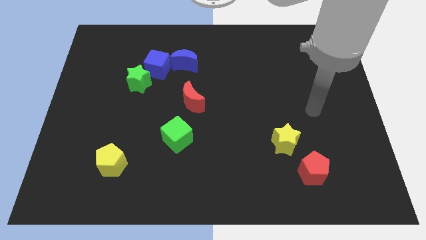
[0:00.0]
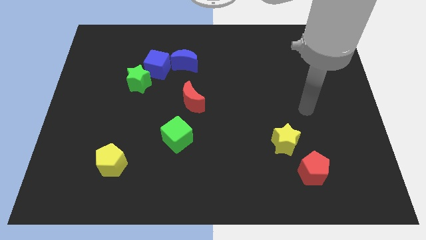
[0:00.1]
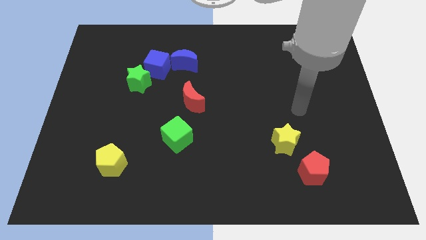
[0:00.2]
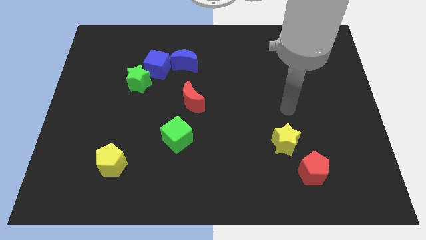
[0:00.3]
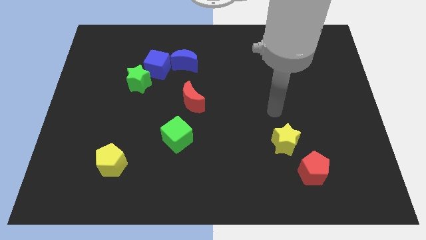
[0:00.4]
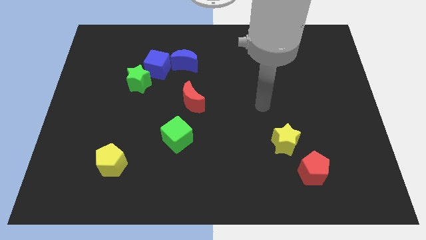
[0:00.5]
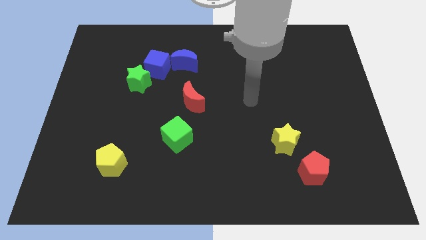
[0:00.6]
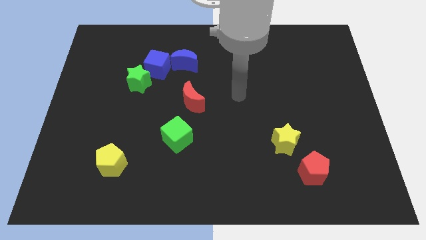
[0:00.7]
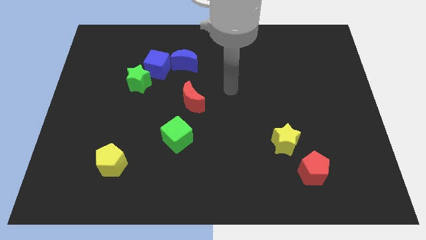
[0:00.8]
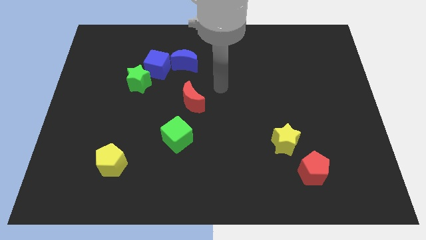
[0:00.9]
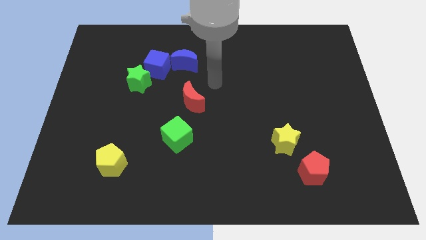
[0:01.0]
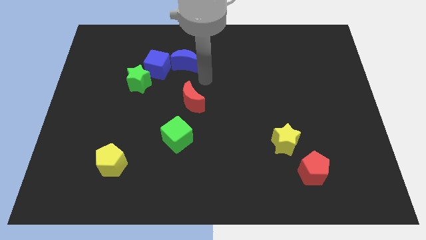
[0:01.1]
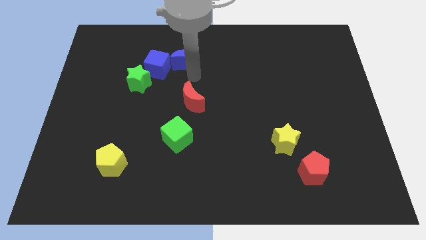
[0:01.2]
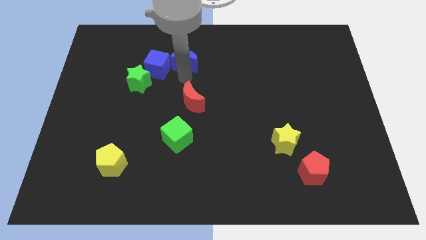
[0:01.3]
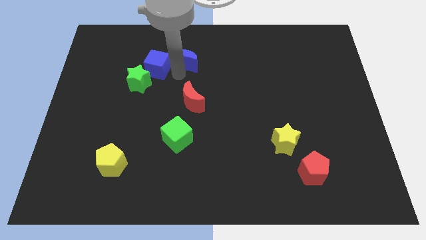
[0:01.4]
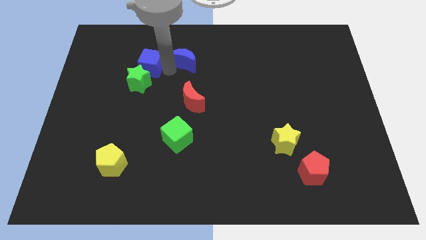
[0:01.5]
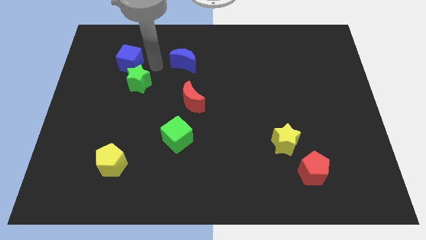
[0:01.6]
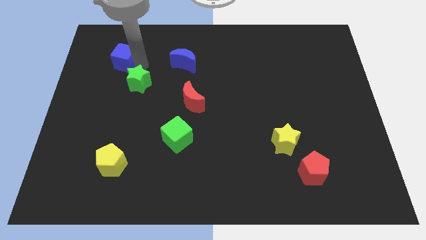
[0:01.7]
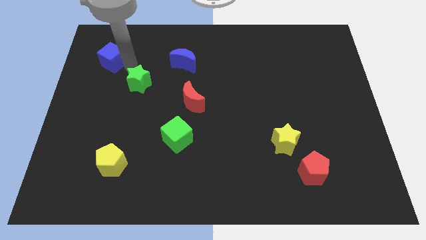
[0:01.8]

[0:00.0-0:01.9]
pull the green star apart from the blue cube

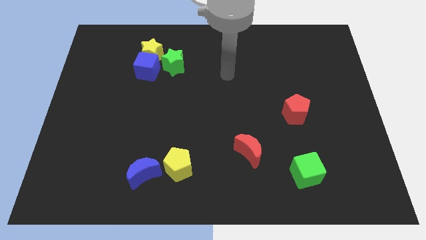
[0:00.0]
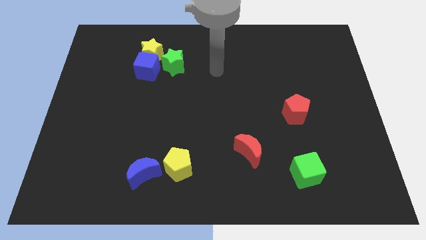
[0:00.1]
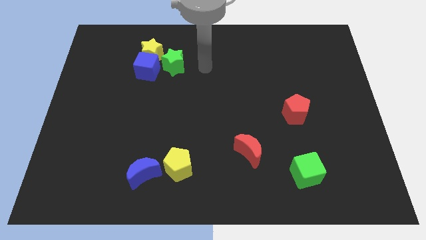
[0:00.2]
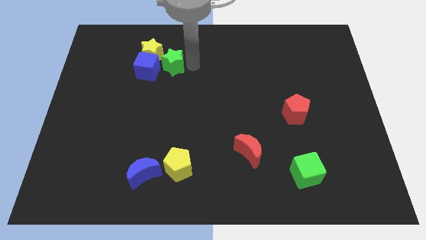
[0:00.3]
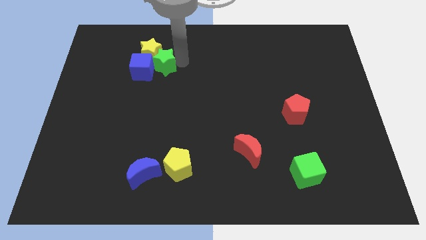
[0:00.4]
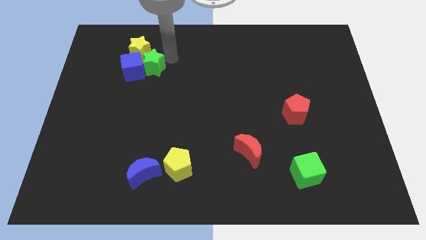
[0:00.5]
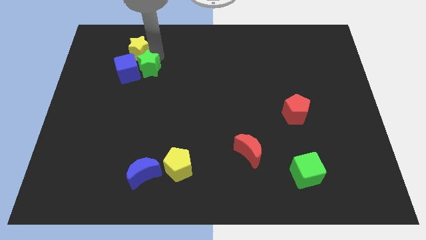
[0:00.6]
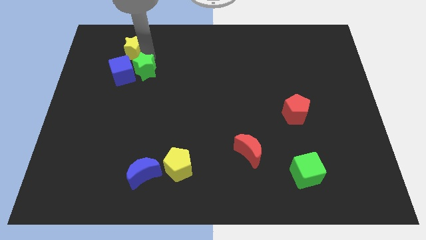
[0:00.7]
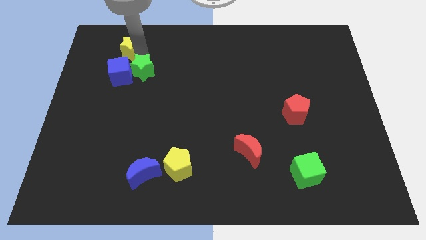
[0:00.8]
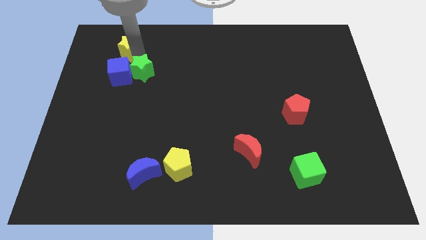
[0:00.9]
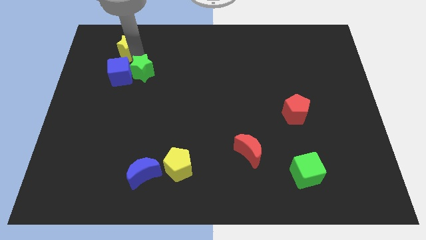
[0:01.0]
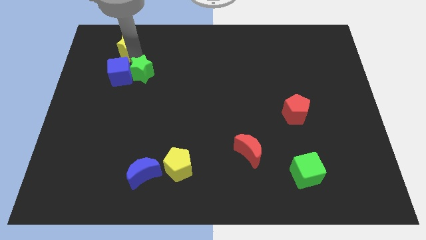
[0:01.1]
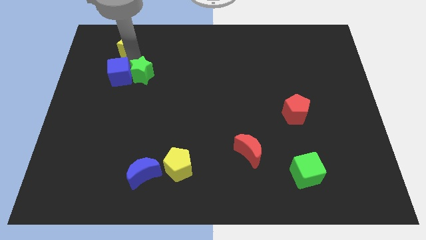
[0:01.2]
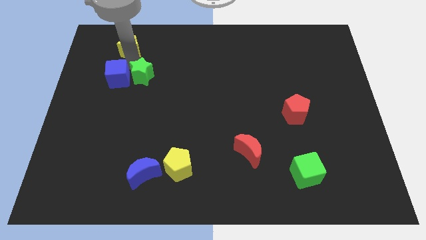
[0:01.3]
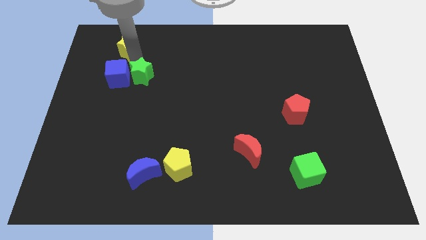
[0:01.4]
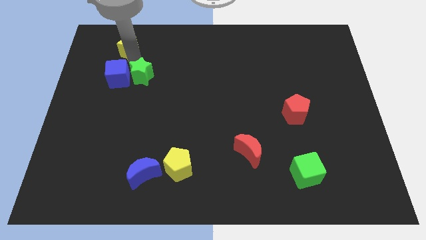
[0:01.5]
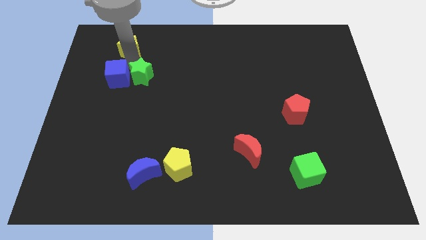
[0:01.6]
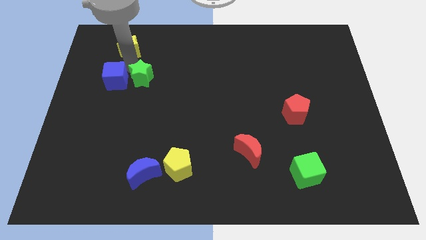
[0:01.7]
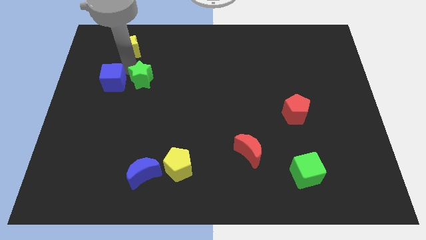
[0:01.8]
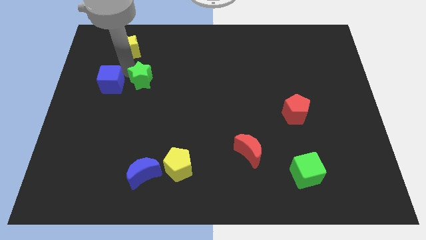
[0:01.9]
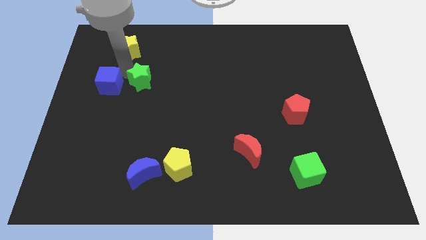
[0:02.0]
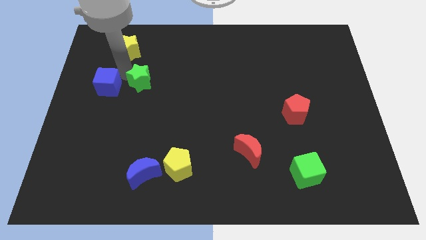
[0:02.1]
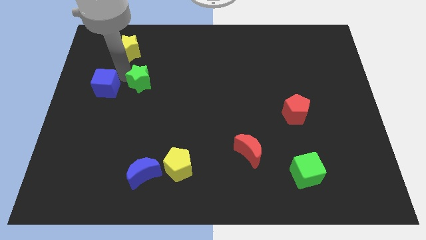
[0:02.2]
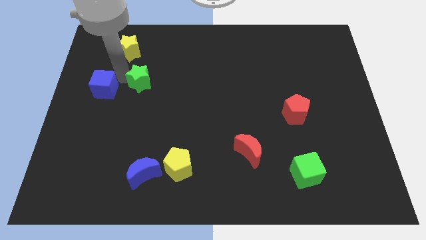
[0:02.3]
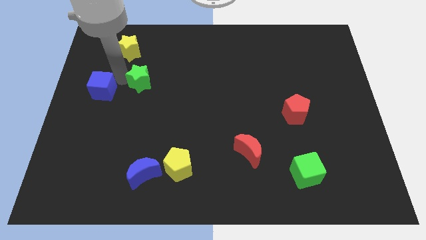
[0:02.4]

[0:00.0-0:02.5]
separate the blue cube from the yellow star and green star

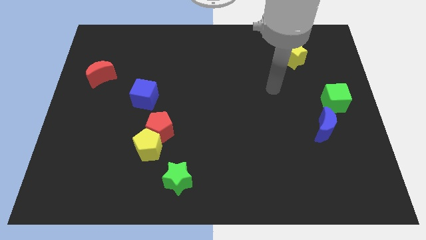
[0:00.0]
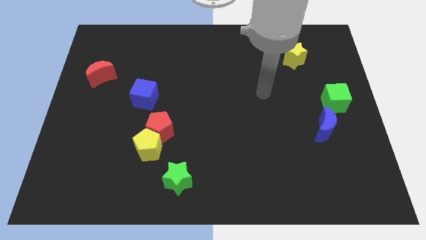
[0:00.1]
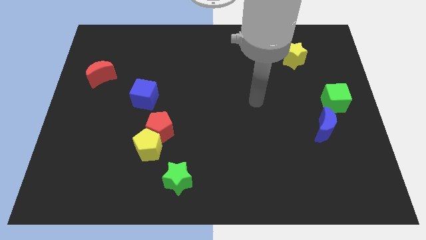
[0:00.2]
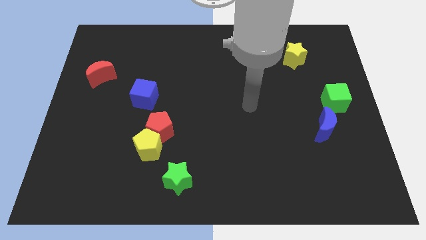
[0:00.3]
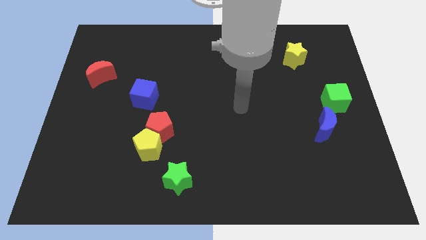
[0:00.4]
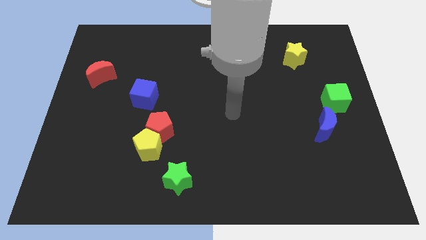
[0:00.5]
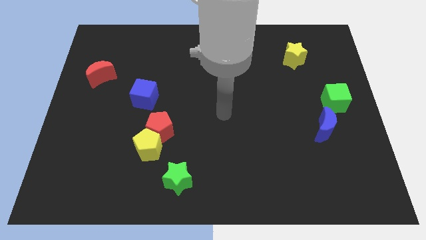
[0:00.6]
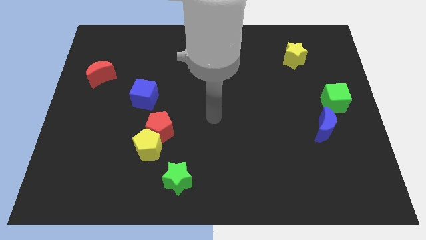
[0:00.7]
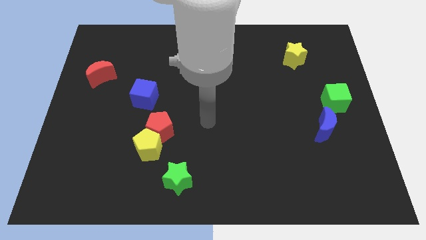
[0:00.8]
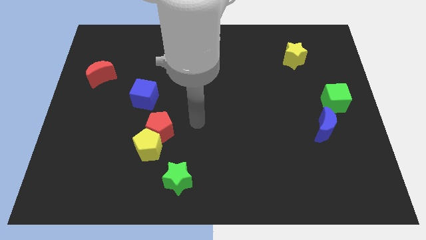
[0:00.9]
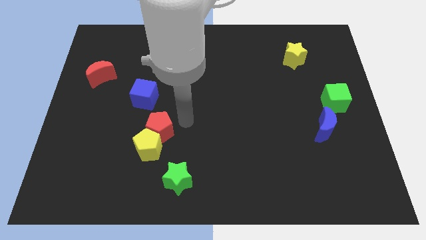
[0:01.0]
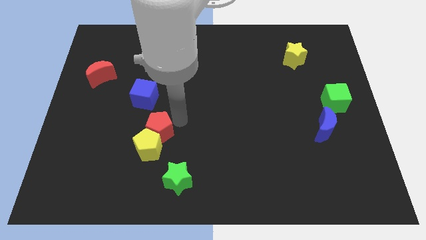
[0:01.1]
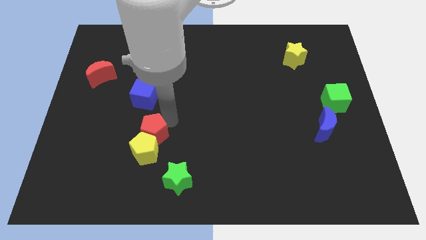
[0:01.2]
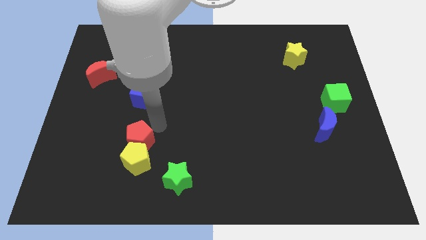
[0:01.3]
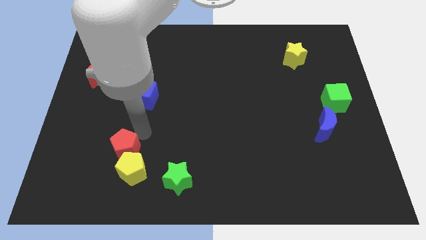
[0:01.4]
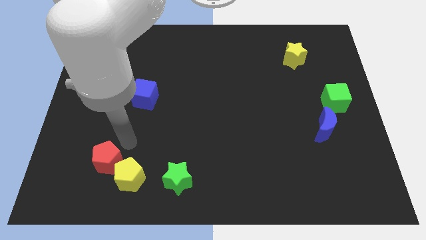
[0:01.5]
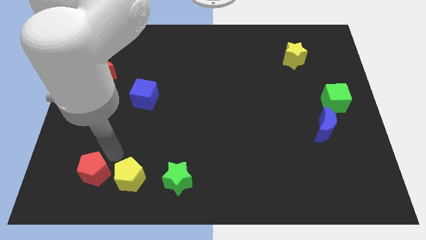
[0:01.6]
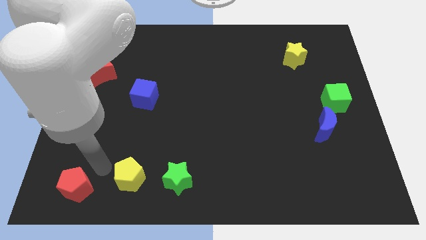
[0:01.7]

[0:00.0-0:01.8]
separate the yellow pentagon from the red pentagon

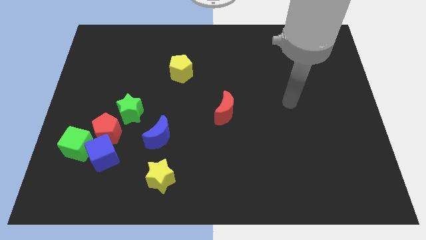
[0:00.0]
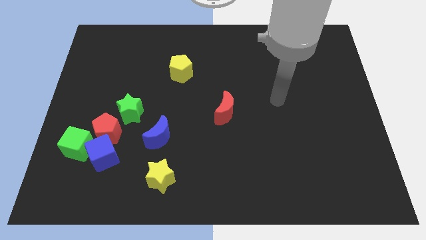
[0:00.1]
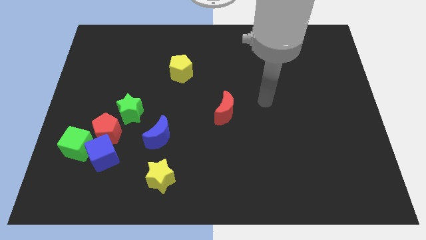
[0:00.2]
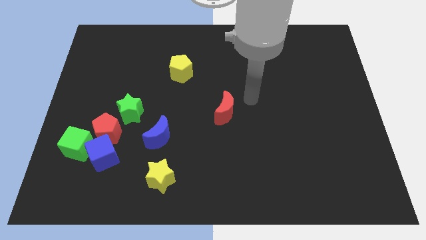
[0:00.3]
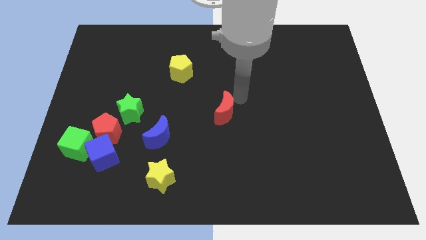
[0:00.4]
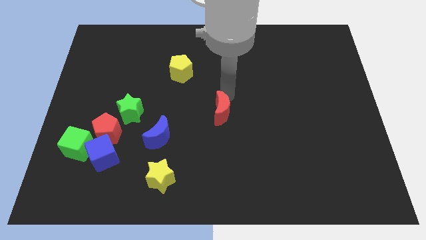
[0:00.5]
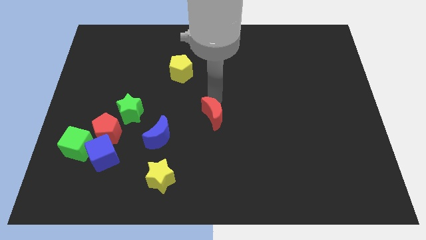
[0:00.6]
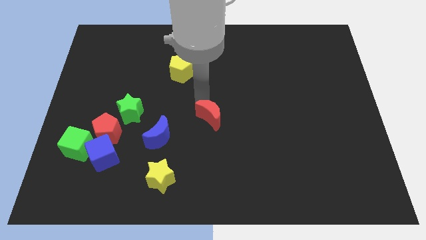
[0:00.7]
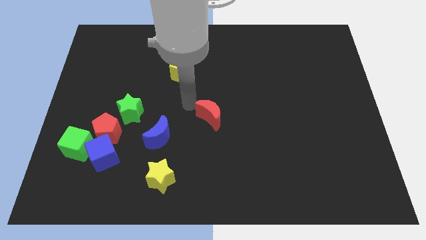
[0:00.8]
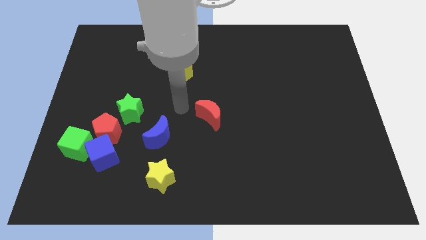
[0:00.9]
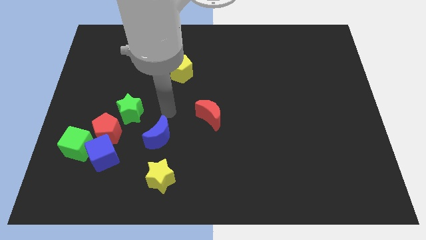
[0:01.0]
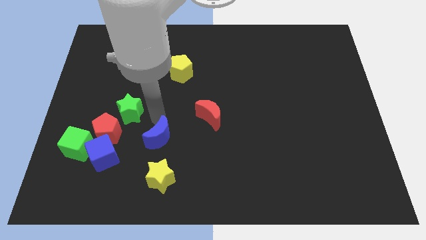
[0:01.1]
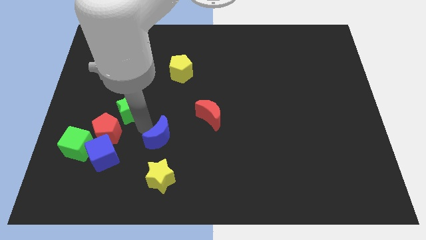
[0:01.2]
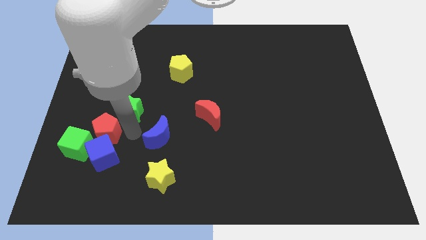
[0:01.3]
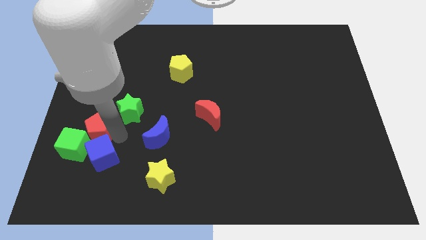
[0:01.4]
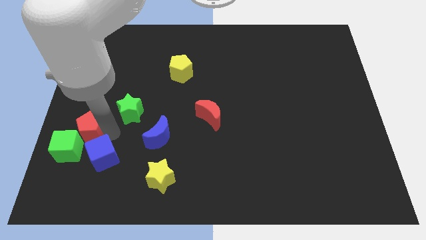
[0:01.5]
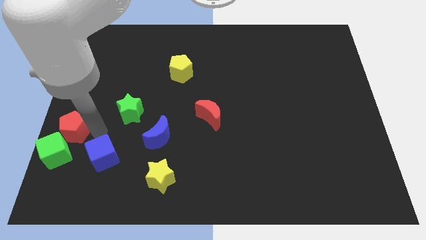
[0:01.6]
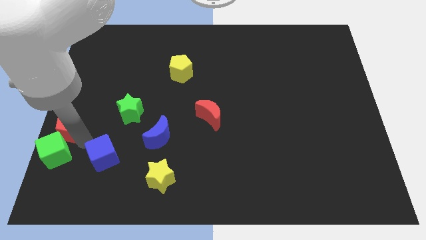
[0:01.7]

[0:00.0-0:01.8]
pull the blue cube apart from the red pentagon and green cube

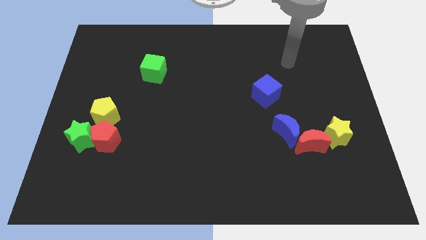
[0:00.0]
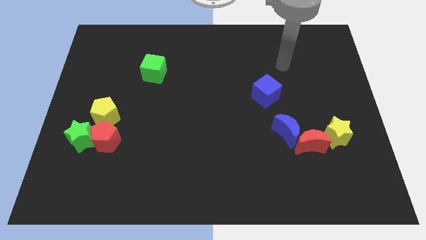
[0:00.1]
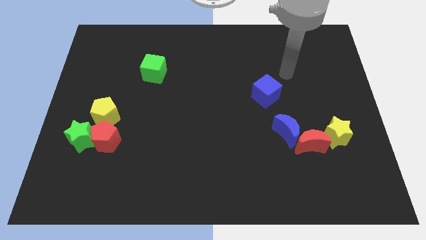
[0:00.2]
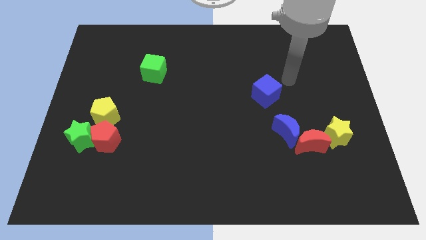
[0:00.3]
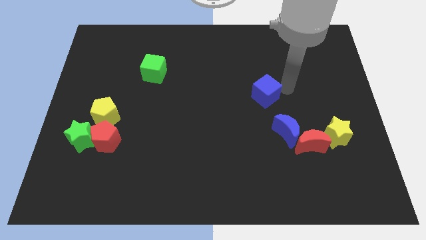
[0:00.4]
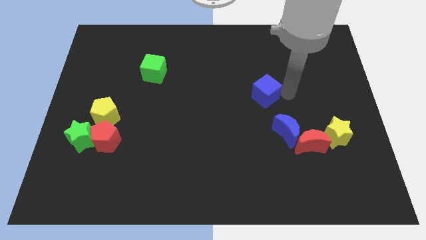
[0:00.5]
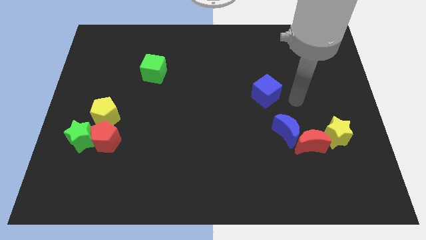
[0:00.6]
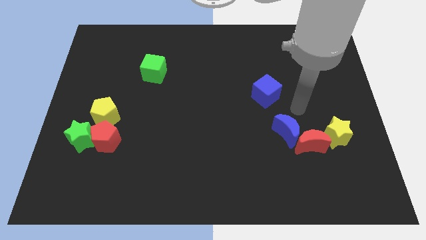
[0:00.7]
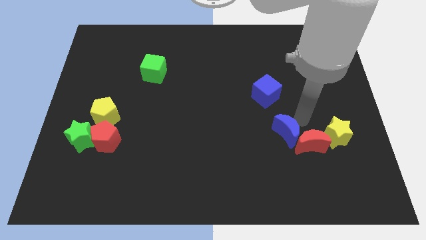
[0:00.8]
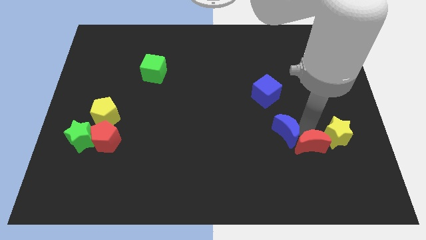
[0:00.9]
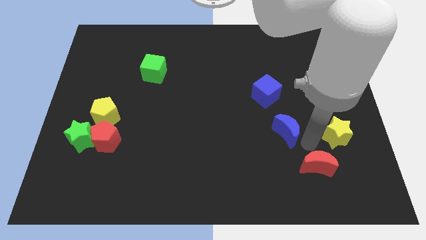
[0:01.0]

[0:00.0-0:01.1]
pull the blue moon apart from the red moon

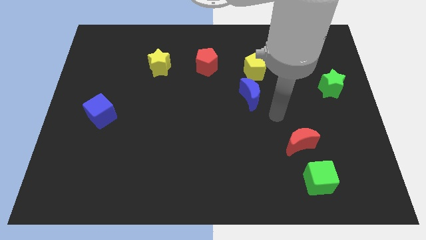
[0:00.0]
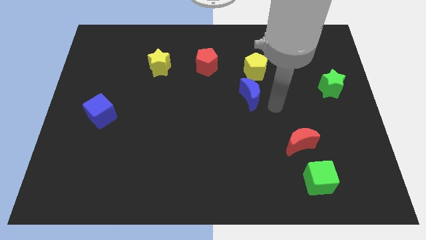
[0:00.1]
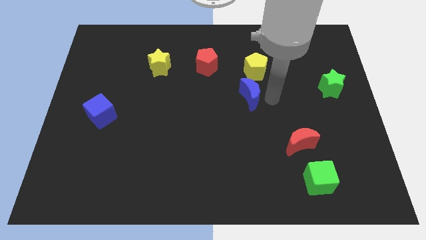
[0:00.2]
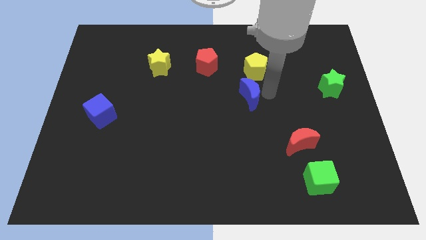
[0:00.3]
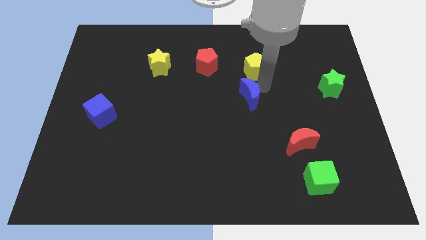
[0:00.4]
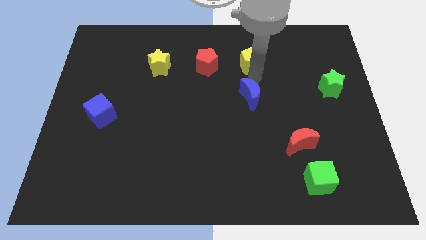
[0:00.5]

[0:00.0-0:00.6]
move the blue moon away from the yellow pentagon
